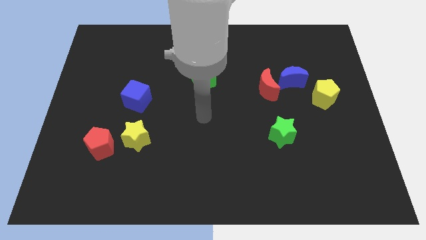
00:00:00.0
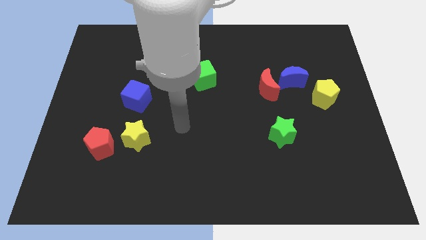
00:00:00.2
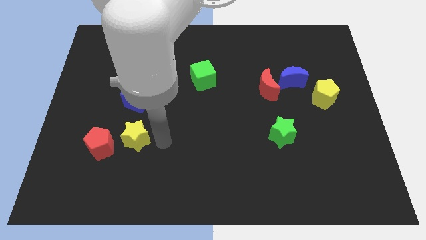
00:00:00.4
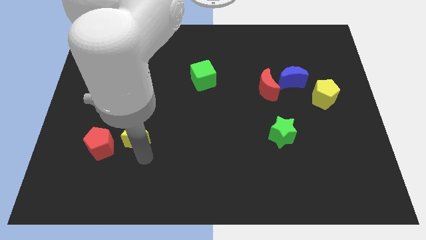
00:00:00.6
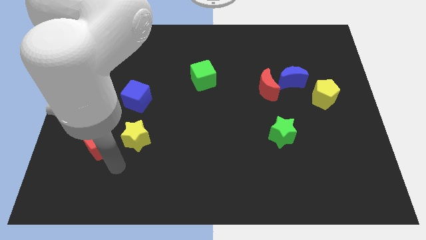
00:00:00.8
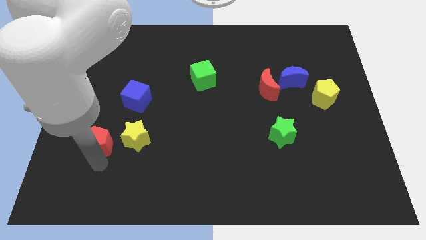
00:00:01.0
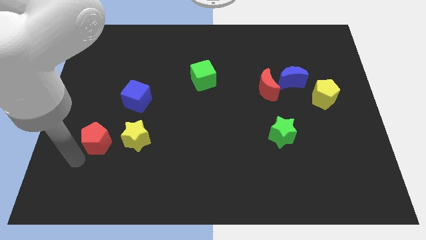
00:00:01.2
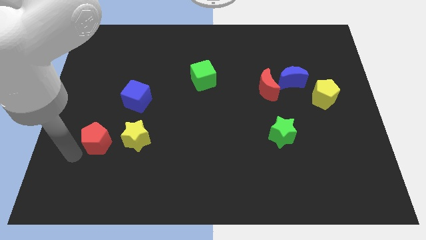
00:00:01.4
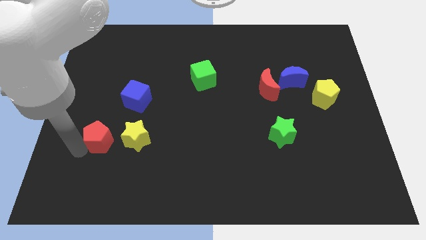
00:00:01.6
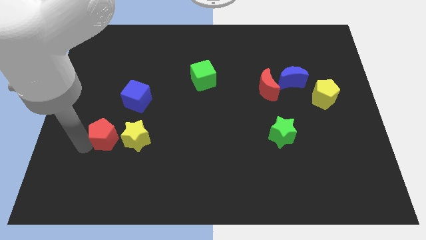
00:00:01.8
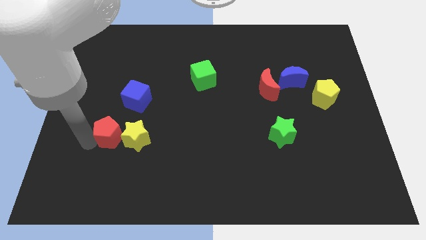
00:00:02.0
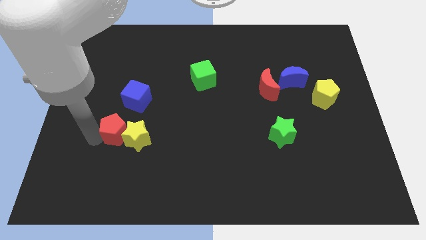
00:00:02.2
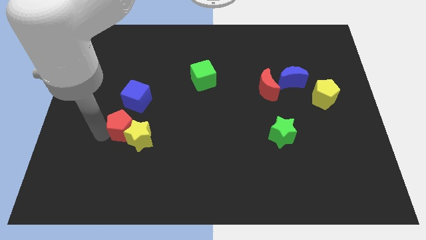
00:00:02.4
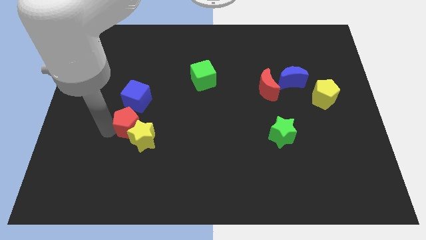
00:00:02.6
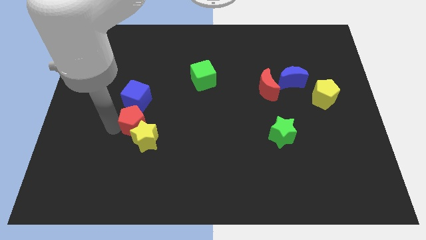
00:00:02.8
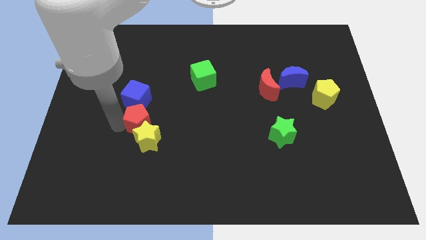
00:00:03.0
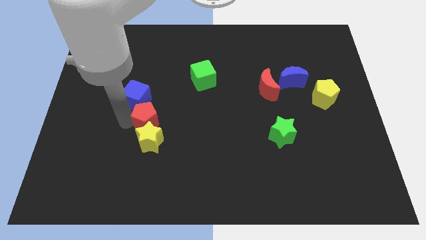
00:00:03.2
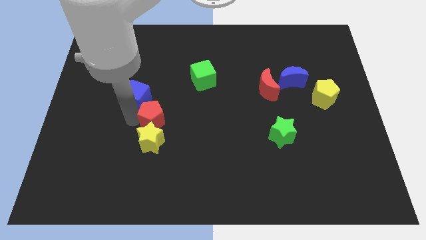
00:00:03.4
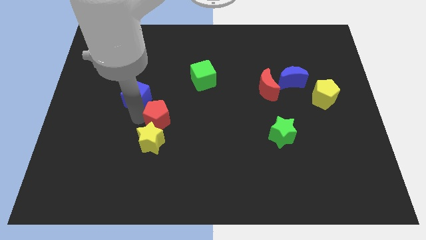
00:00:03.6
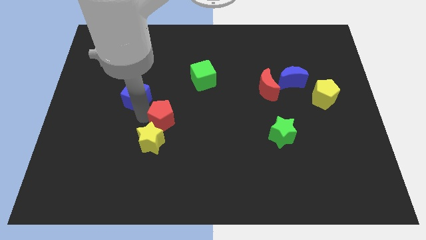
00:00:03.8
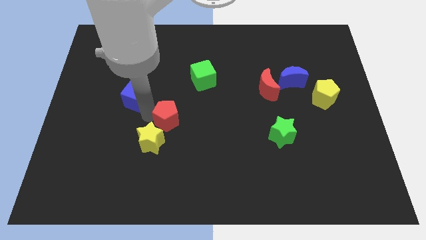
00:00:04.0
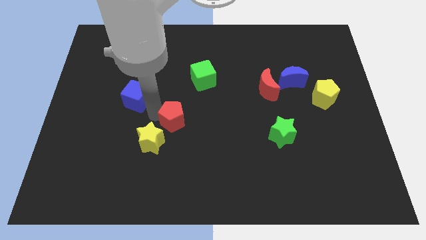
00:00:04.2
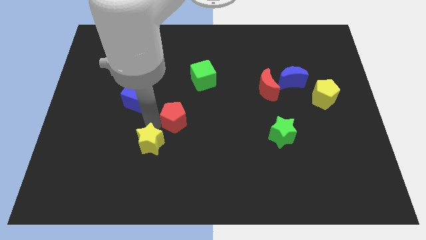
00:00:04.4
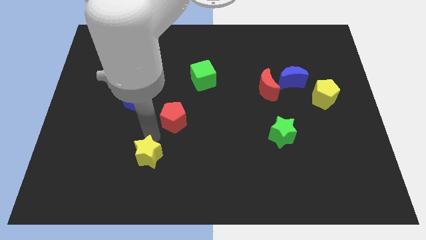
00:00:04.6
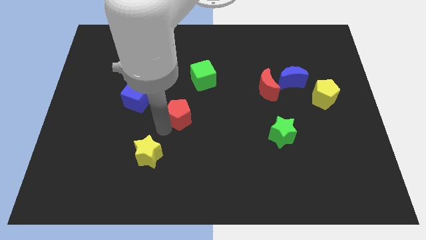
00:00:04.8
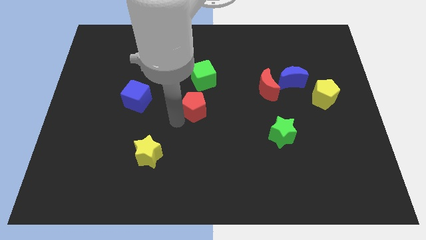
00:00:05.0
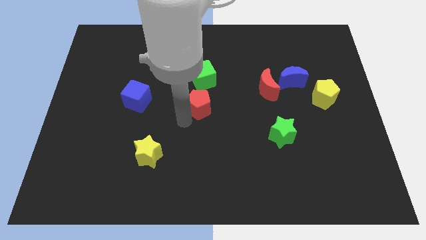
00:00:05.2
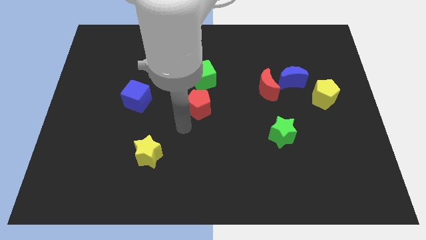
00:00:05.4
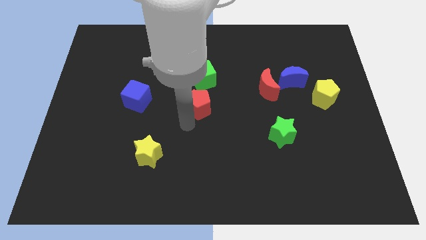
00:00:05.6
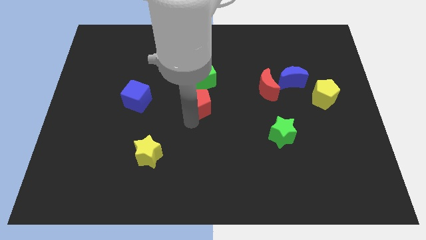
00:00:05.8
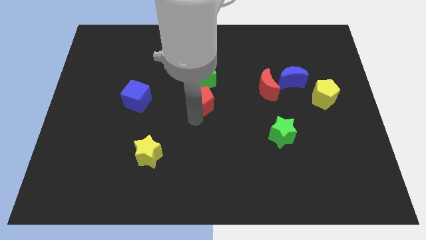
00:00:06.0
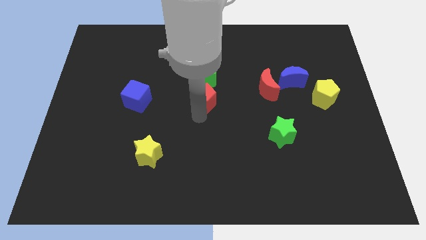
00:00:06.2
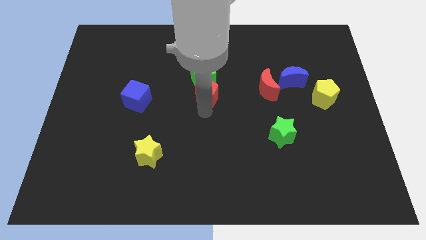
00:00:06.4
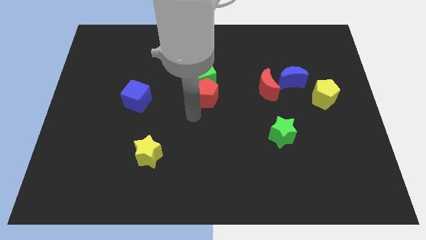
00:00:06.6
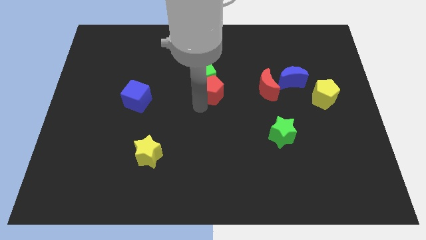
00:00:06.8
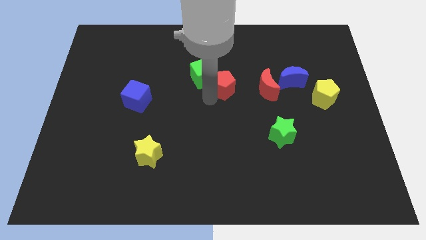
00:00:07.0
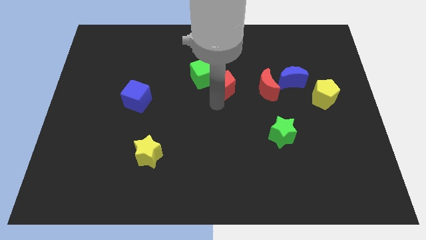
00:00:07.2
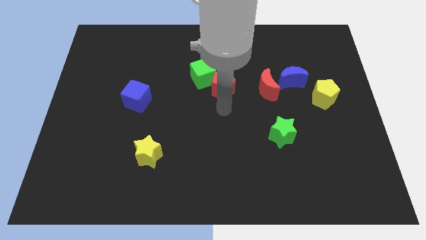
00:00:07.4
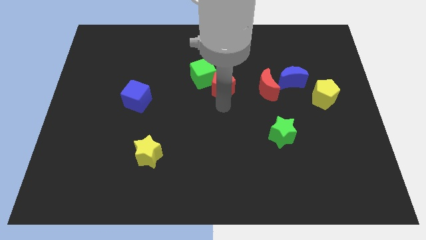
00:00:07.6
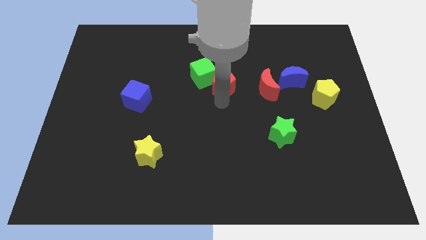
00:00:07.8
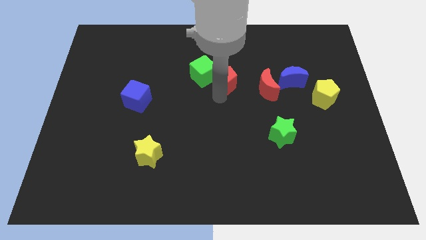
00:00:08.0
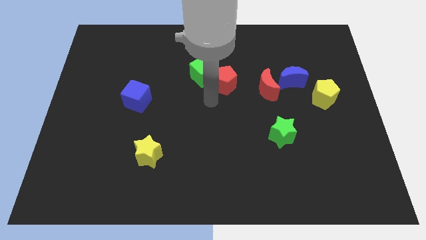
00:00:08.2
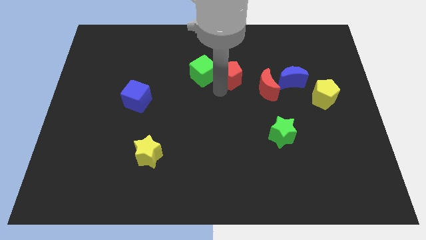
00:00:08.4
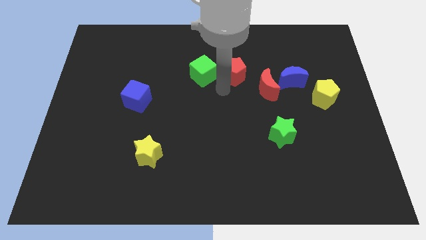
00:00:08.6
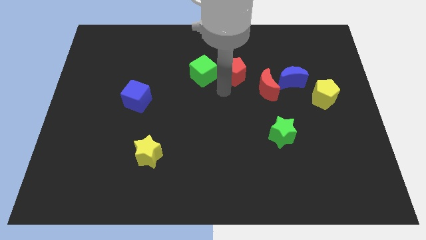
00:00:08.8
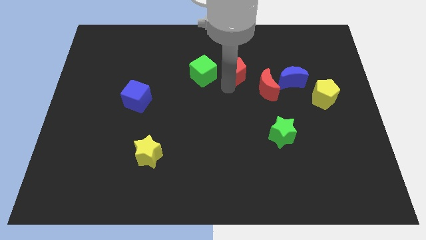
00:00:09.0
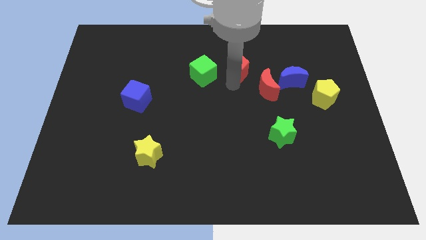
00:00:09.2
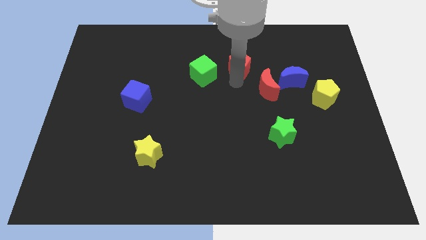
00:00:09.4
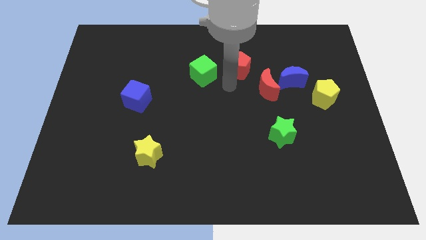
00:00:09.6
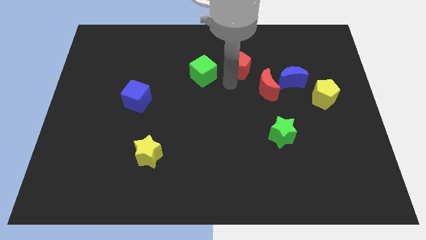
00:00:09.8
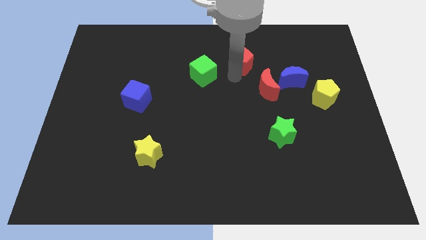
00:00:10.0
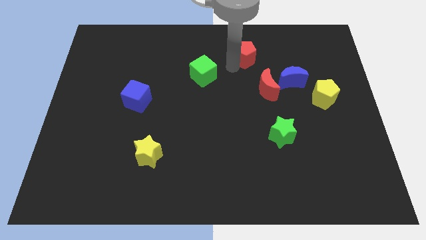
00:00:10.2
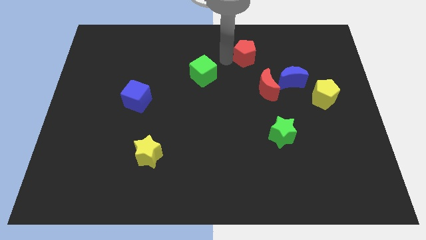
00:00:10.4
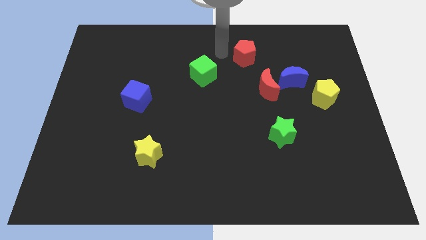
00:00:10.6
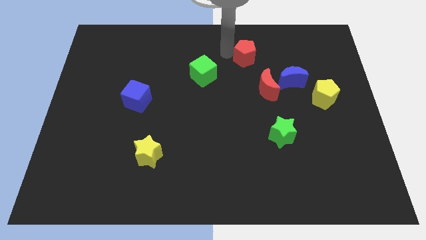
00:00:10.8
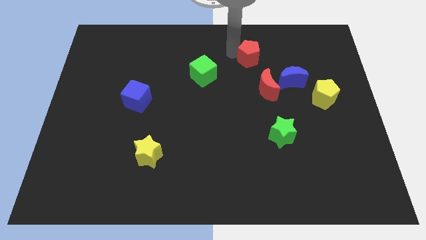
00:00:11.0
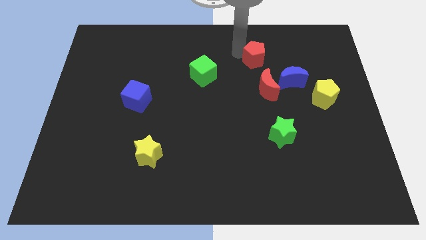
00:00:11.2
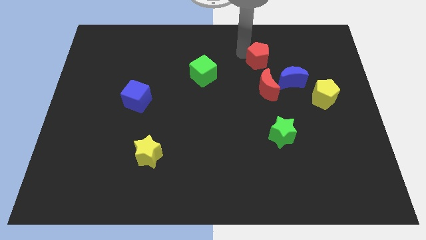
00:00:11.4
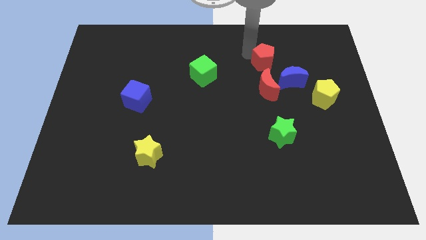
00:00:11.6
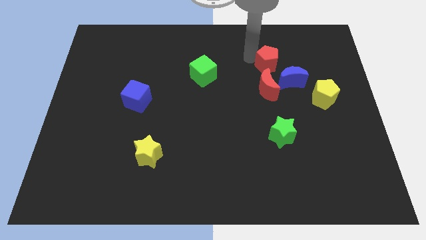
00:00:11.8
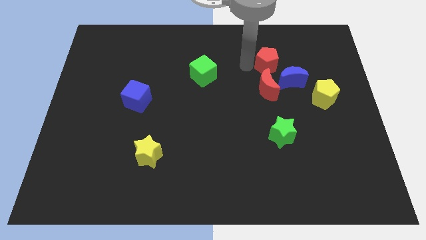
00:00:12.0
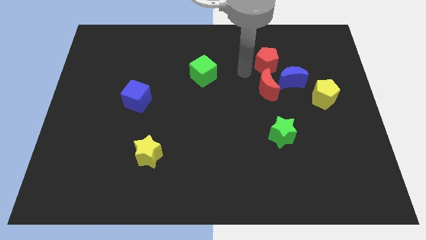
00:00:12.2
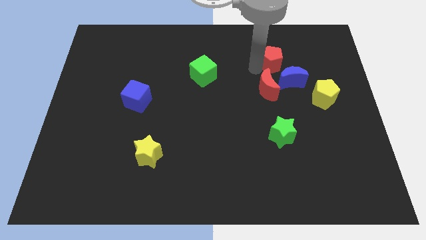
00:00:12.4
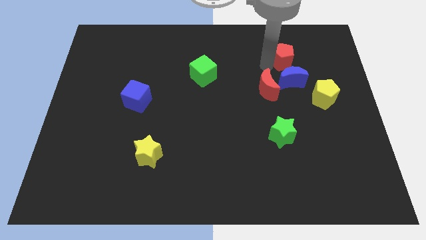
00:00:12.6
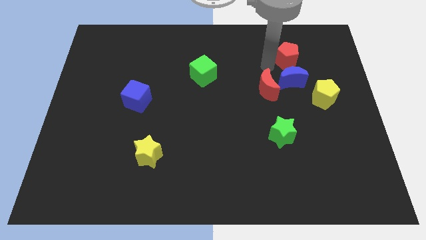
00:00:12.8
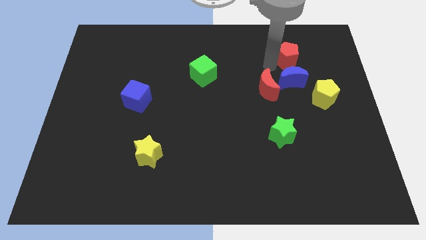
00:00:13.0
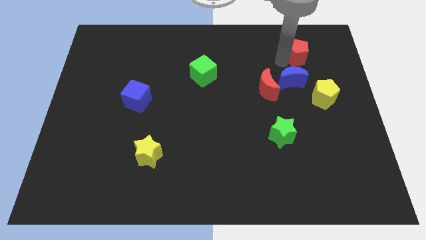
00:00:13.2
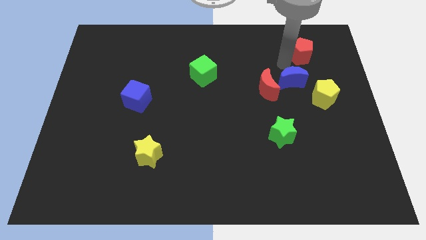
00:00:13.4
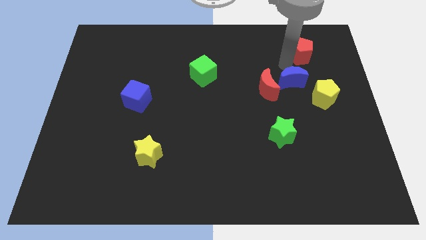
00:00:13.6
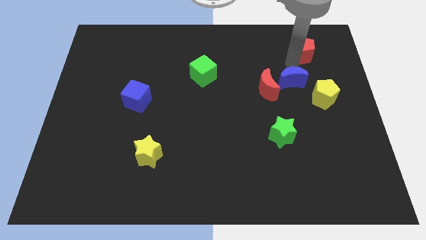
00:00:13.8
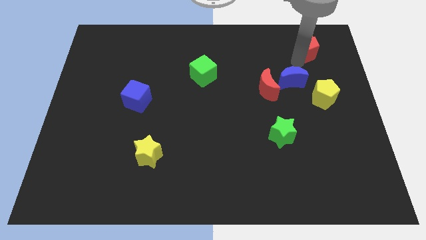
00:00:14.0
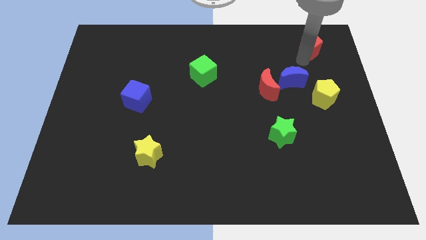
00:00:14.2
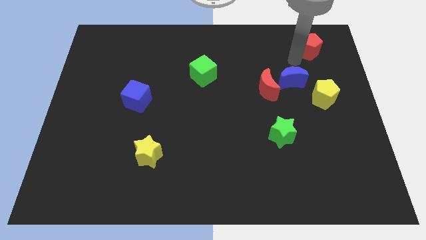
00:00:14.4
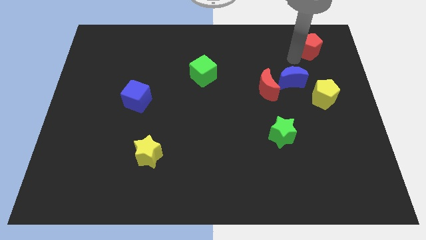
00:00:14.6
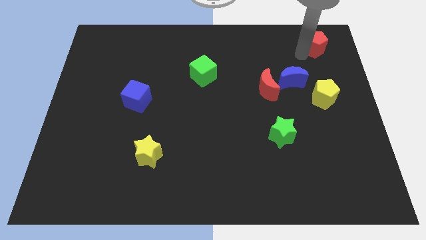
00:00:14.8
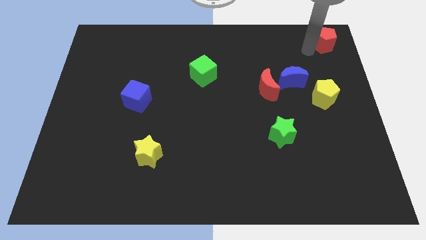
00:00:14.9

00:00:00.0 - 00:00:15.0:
move the red pentagon to the top right of the board
